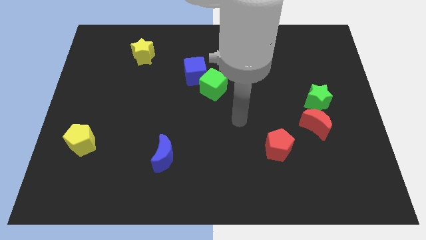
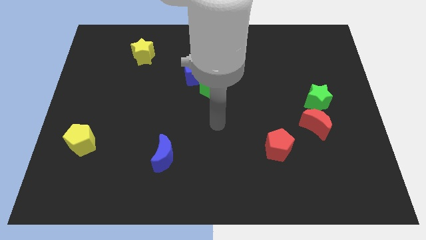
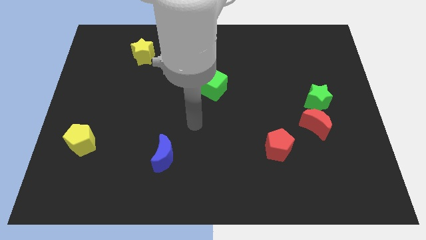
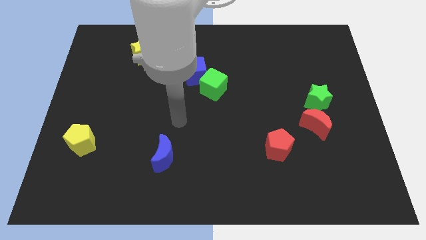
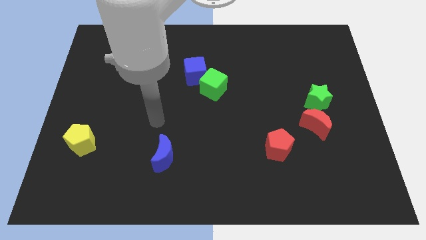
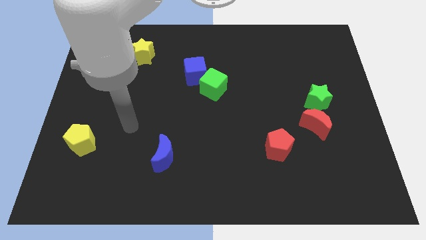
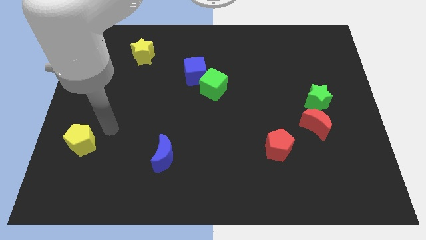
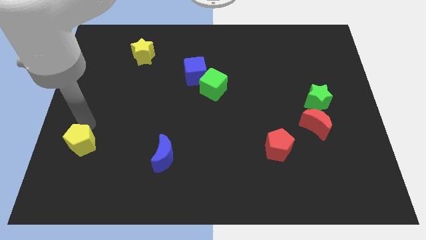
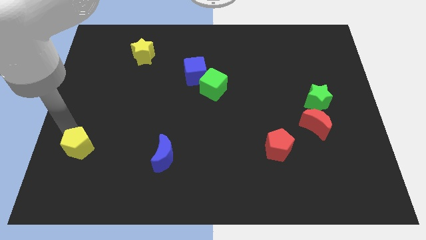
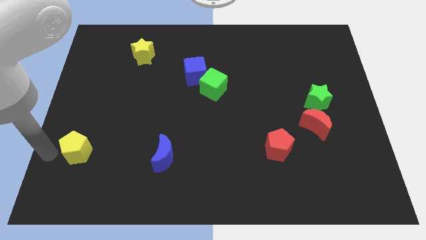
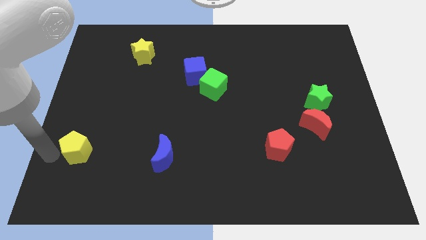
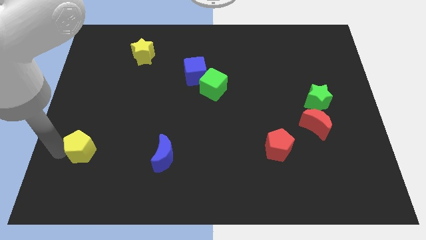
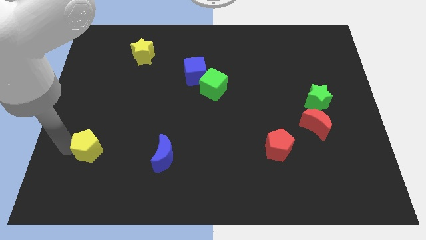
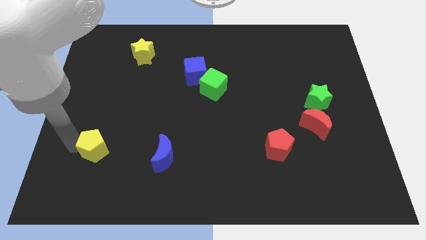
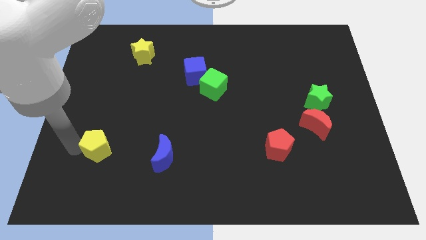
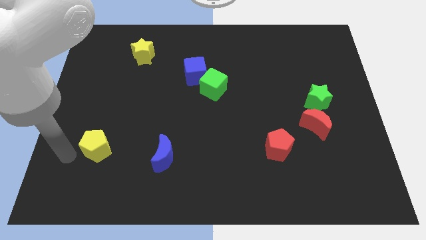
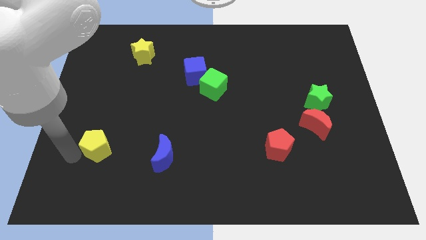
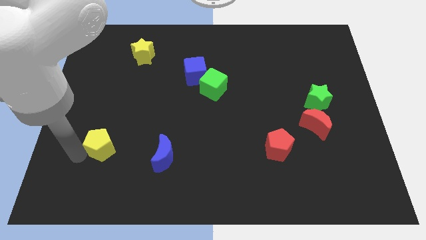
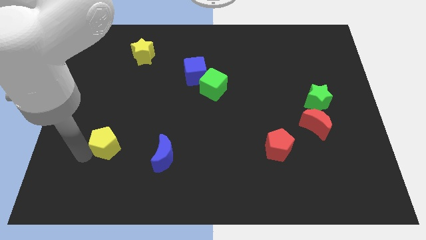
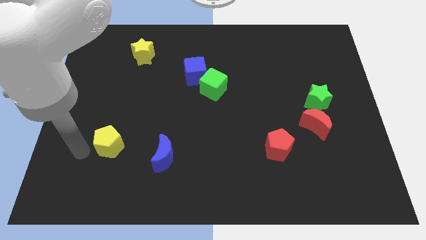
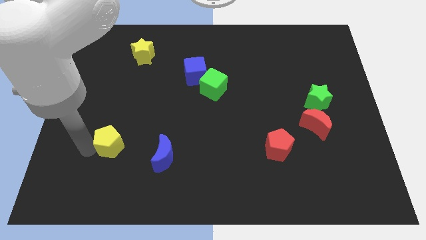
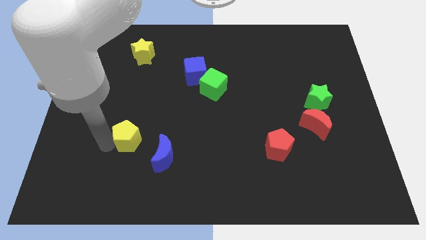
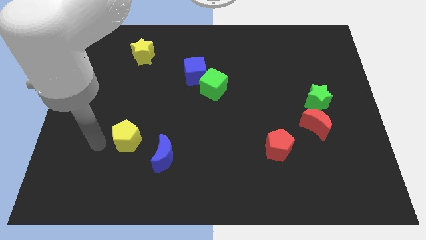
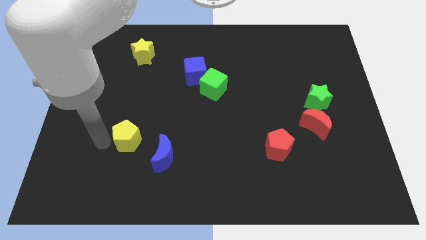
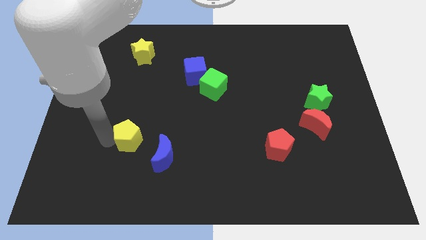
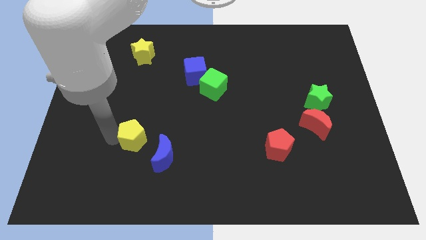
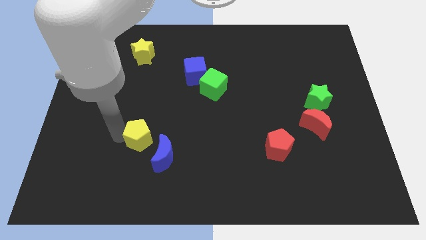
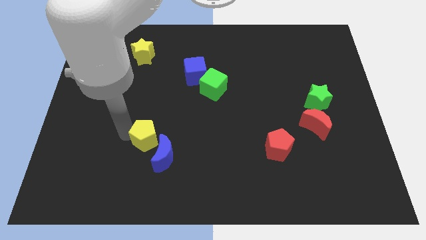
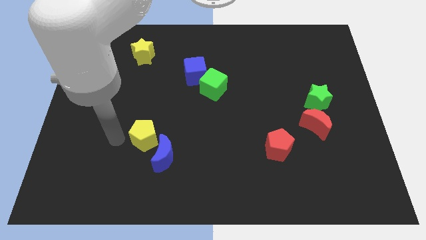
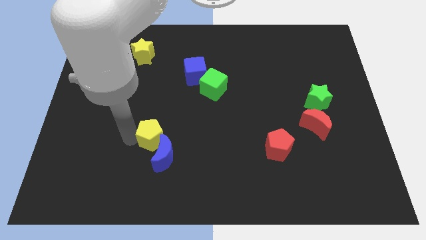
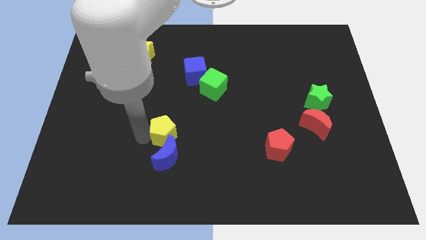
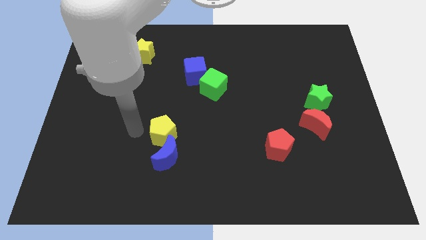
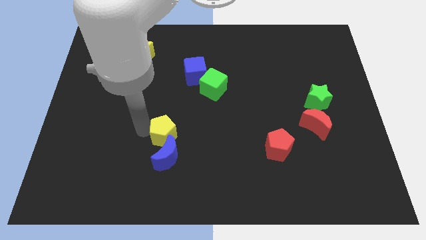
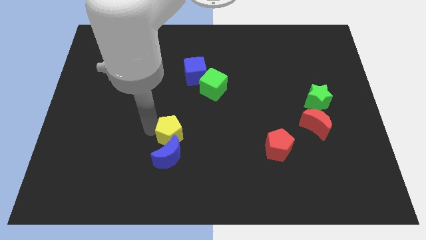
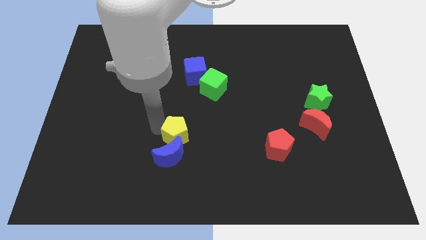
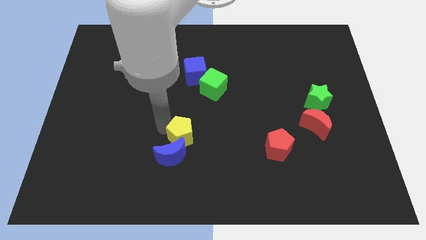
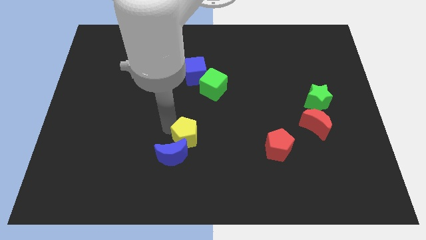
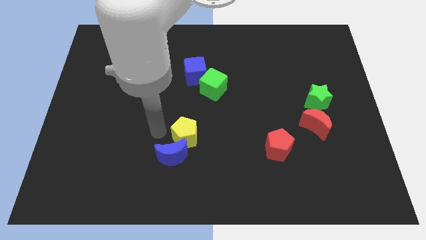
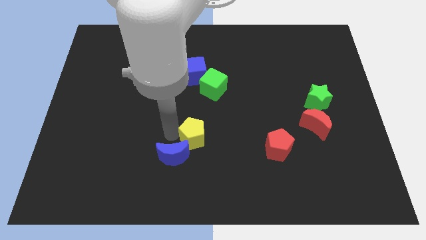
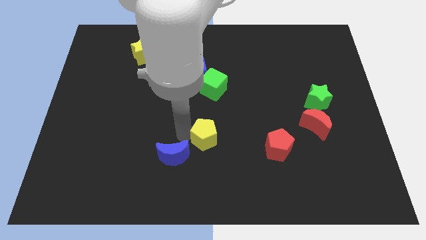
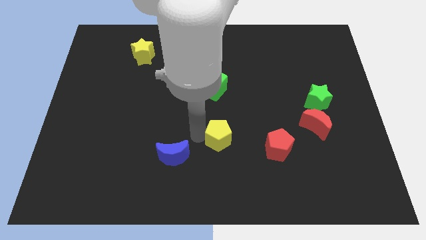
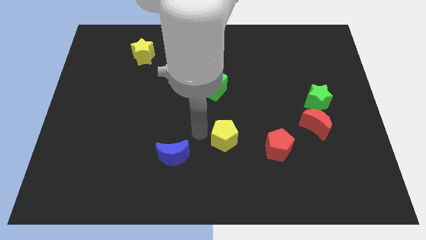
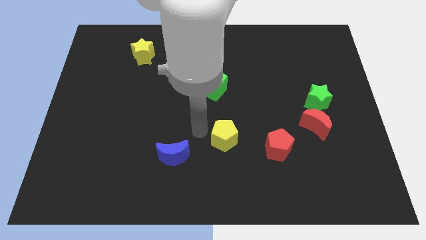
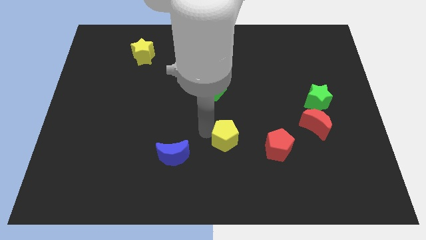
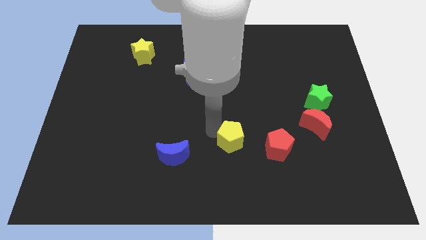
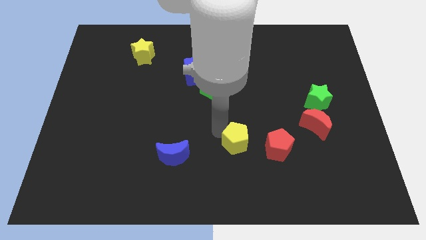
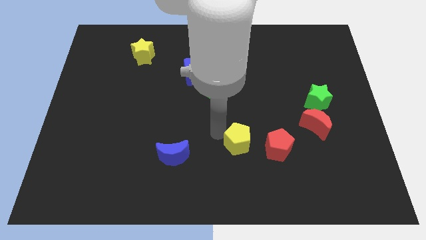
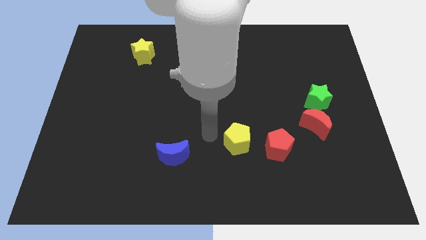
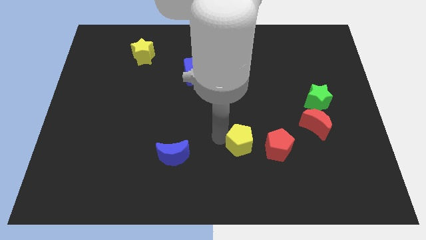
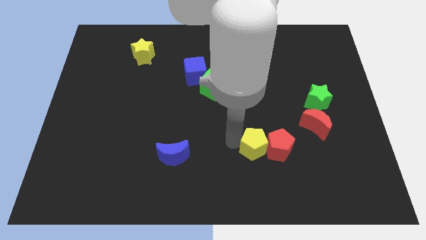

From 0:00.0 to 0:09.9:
move the yellow pentagon towards the red pentagon

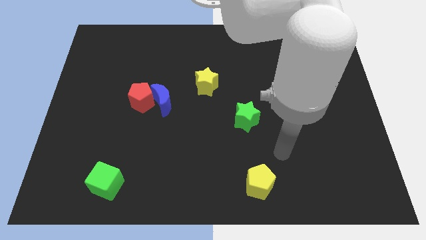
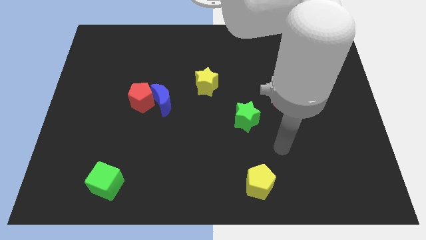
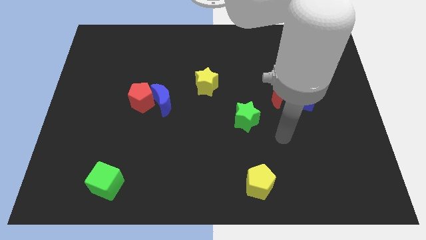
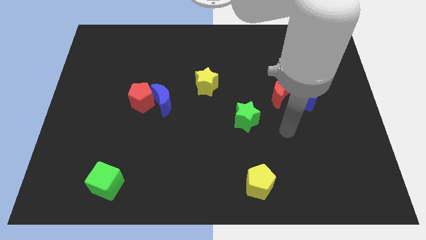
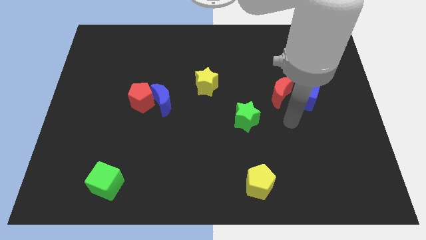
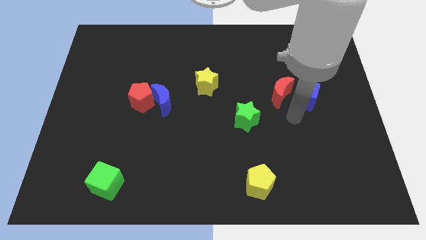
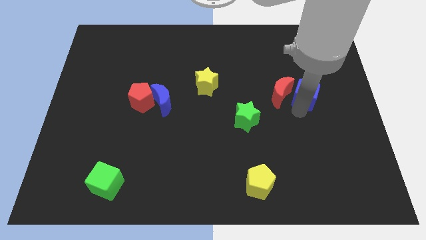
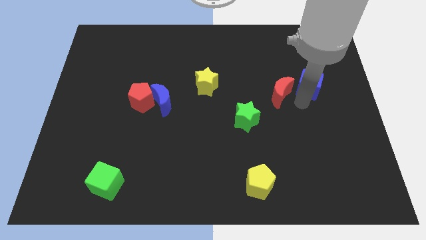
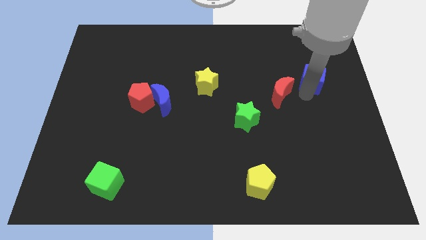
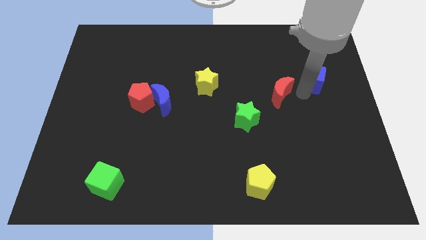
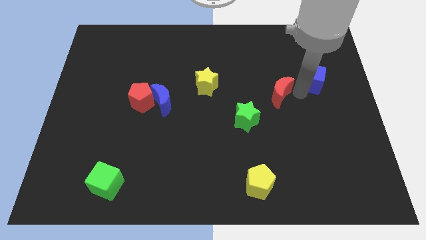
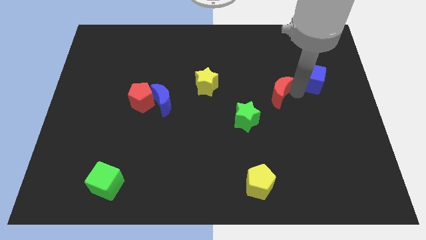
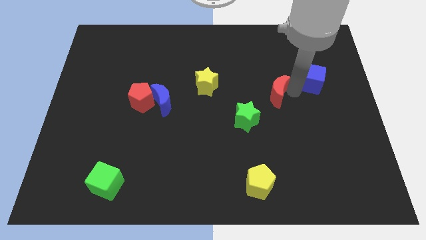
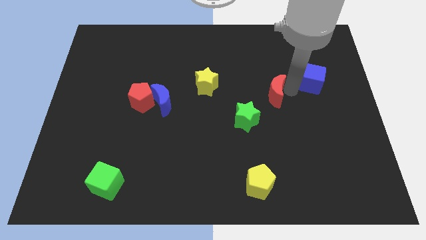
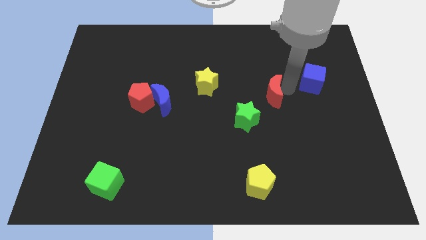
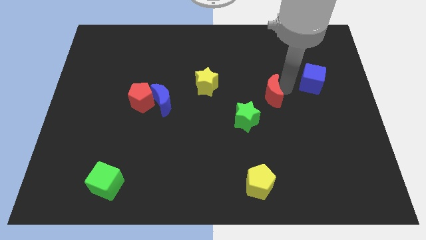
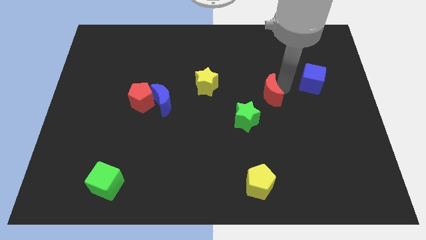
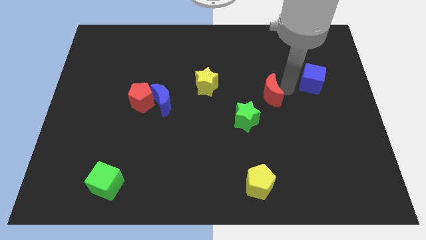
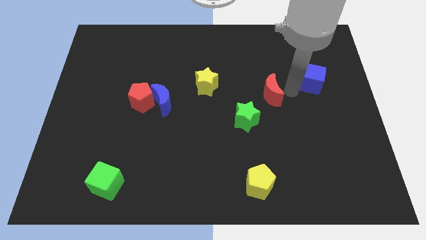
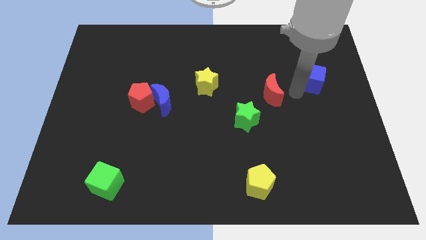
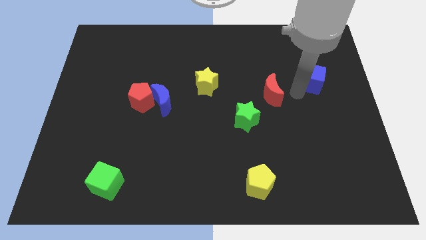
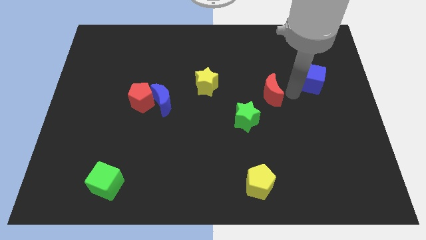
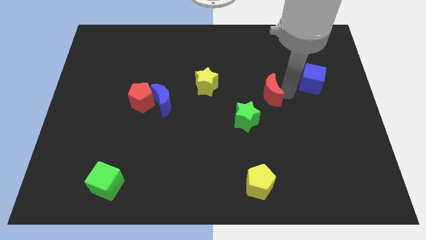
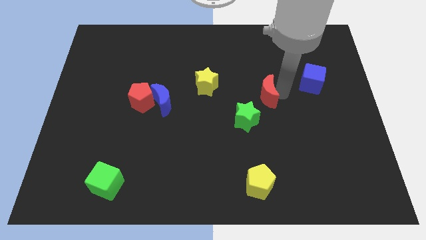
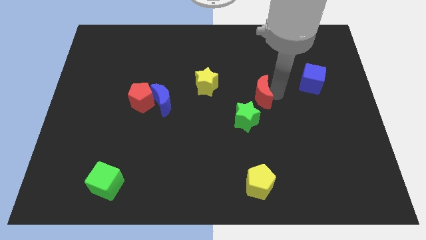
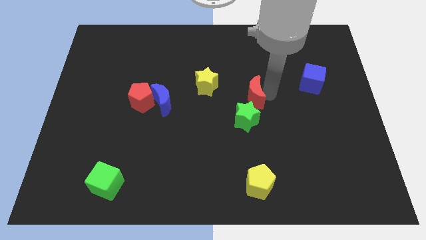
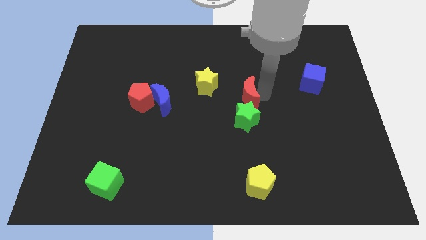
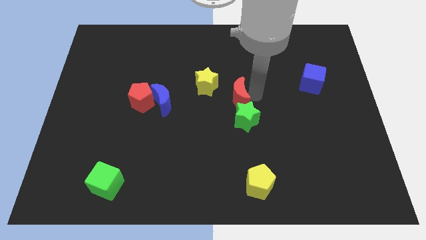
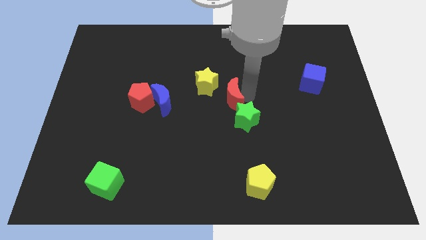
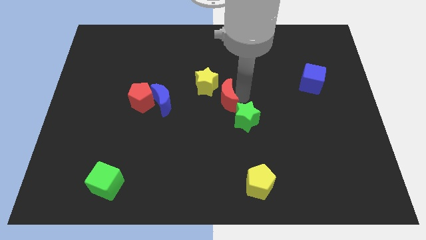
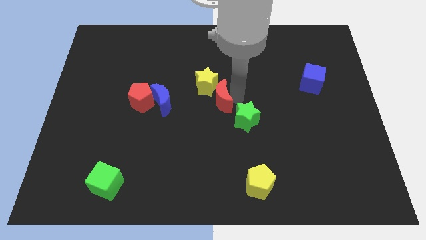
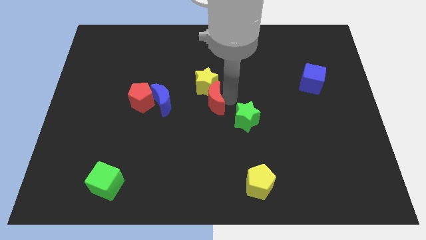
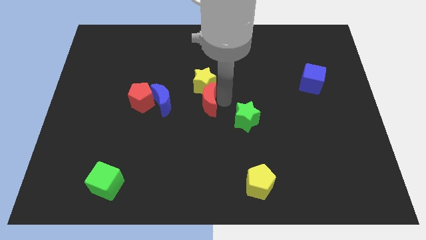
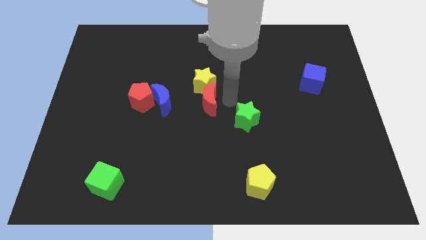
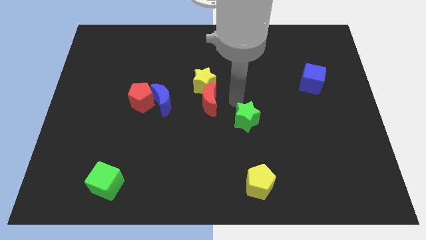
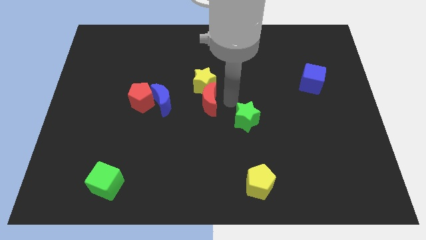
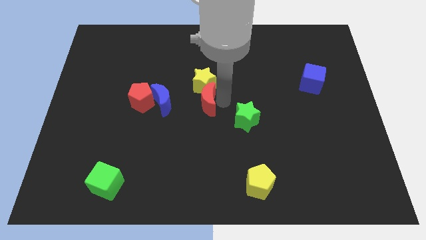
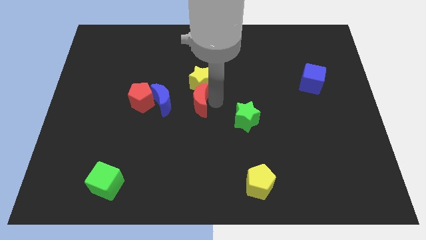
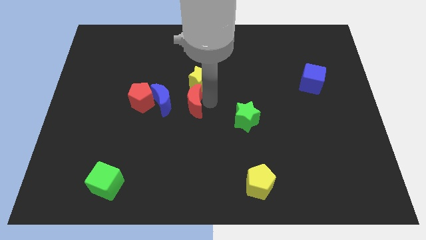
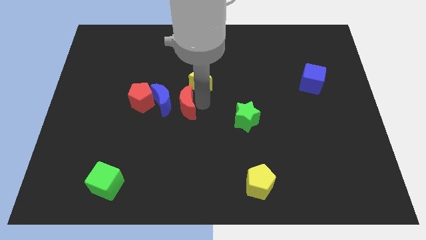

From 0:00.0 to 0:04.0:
push the red moon to the blue moon
